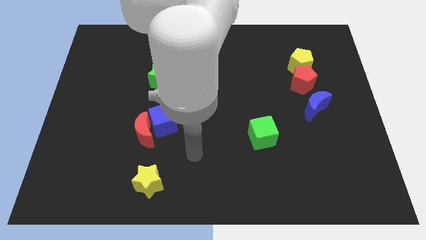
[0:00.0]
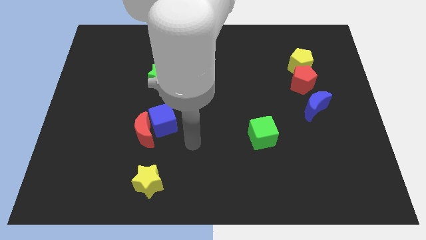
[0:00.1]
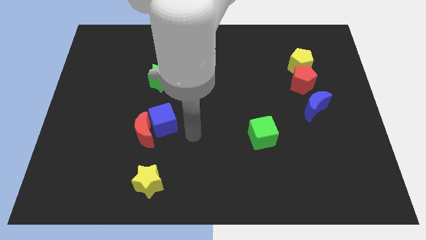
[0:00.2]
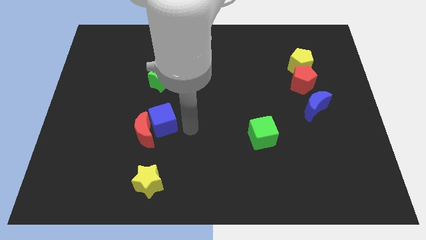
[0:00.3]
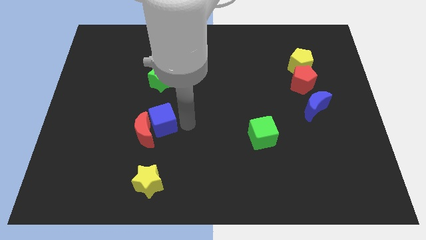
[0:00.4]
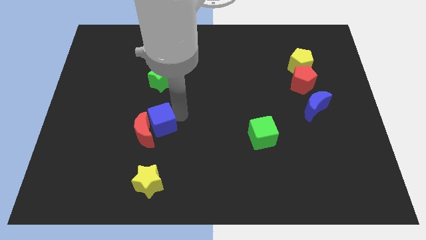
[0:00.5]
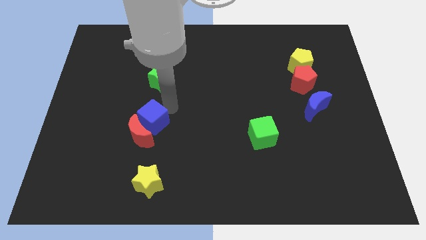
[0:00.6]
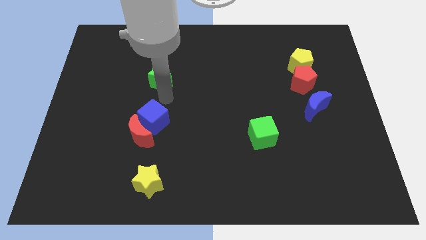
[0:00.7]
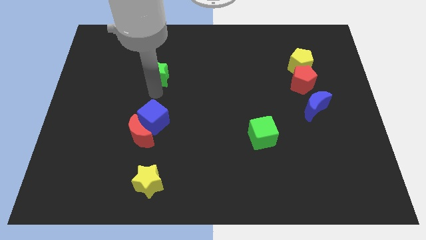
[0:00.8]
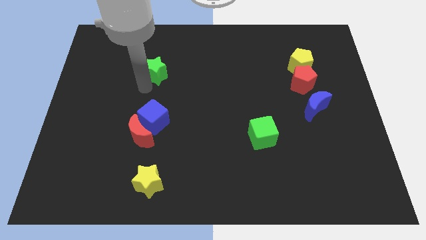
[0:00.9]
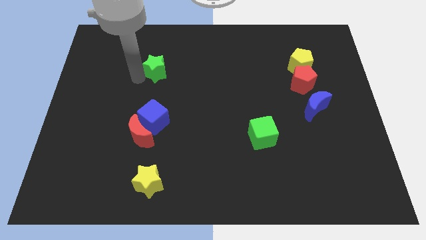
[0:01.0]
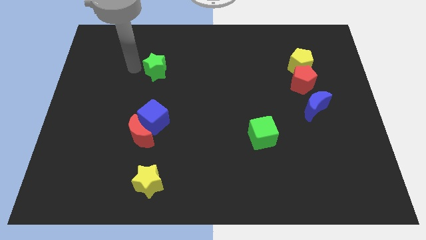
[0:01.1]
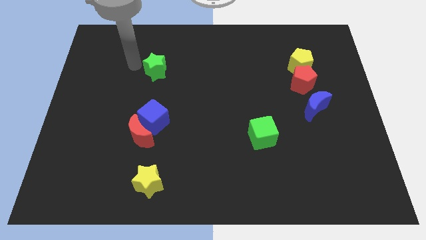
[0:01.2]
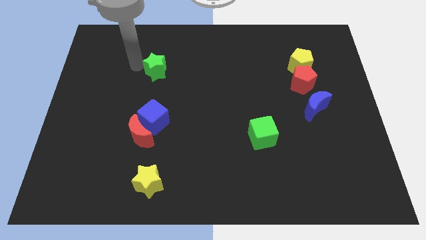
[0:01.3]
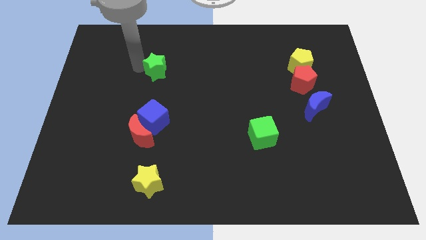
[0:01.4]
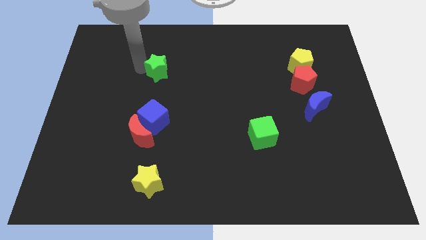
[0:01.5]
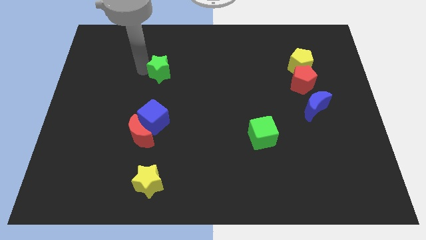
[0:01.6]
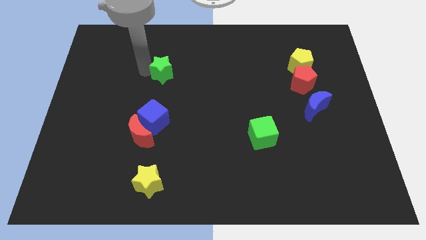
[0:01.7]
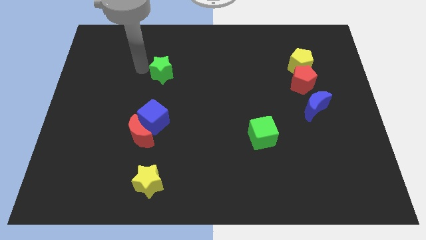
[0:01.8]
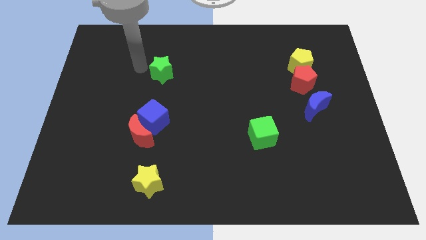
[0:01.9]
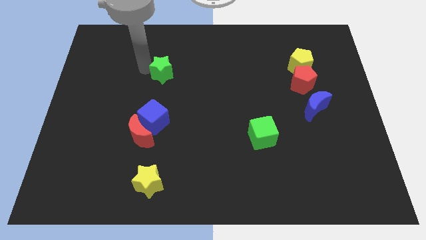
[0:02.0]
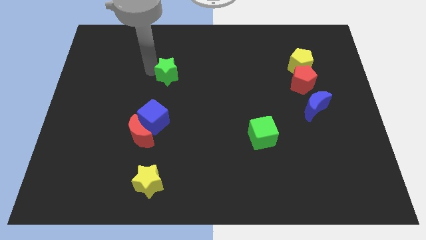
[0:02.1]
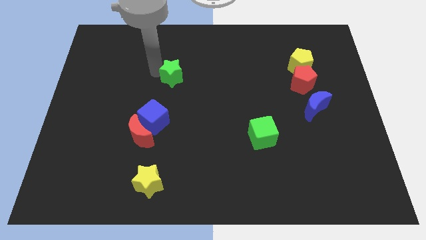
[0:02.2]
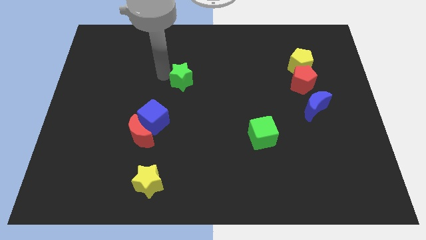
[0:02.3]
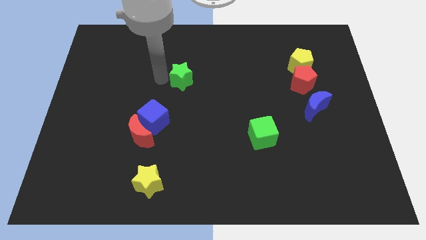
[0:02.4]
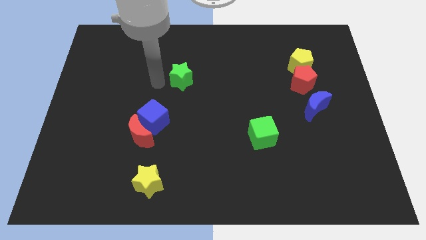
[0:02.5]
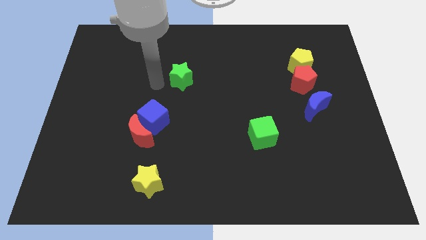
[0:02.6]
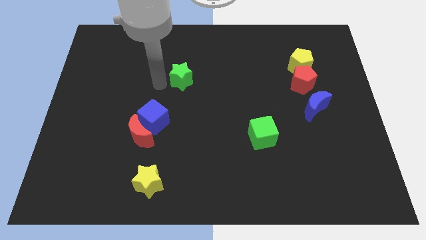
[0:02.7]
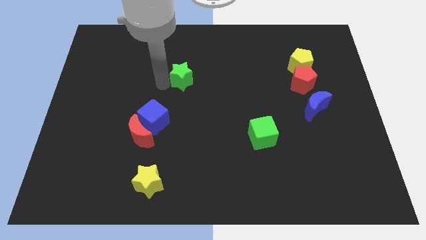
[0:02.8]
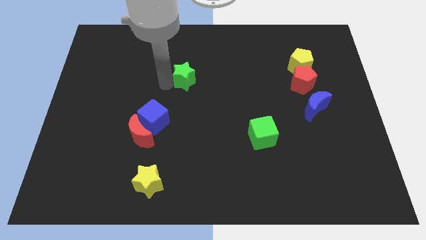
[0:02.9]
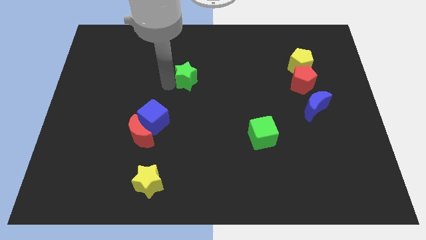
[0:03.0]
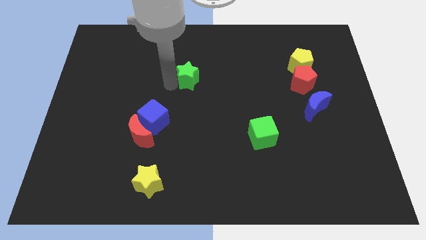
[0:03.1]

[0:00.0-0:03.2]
move the green star somewhat to the right

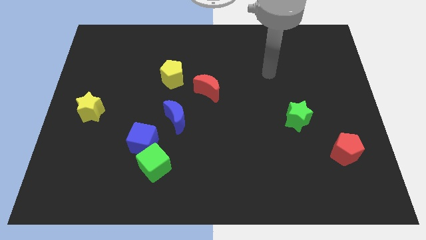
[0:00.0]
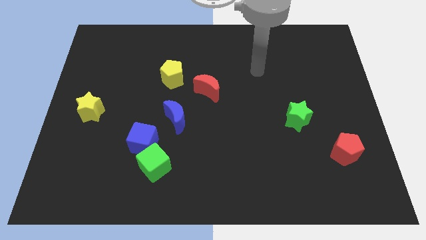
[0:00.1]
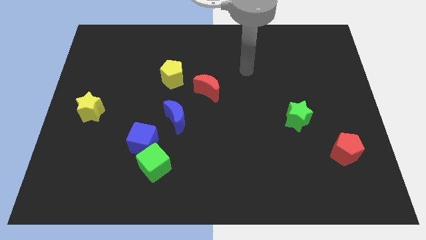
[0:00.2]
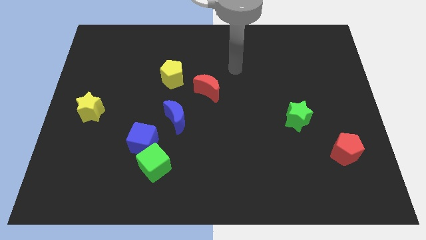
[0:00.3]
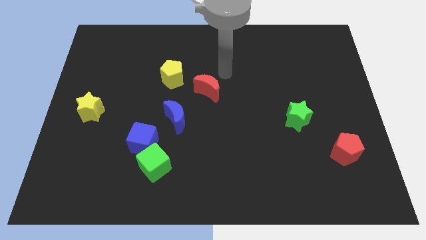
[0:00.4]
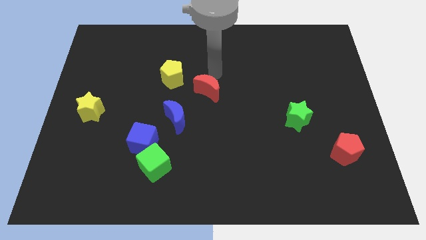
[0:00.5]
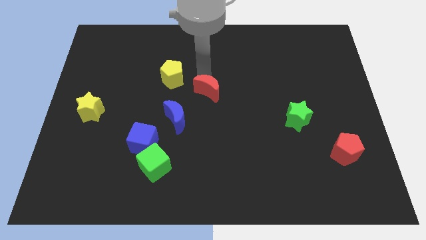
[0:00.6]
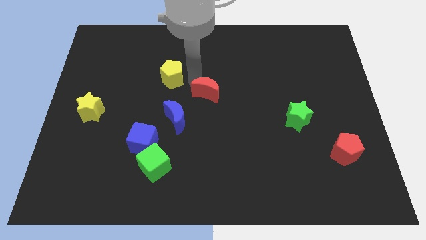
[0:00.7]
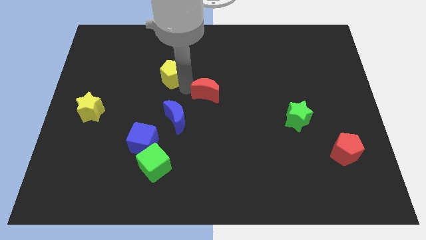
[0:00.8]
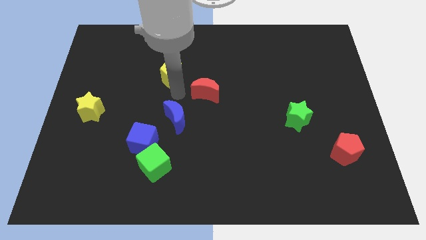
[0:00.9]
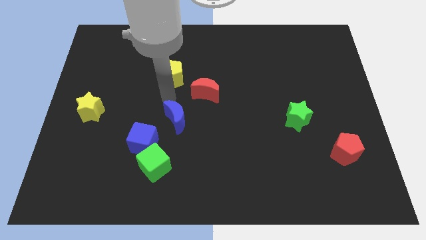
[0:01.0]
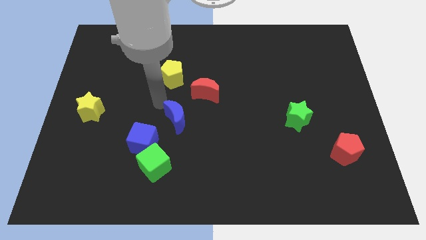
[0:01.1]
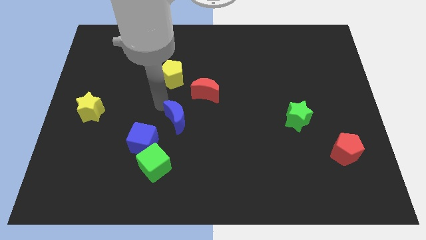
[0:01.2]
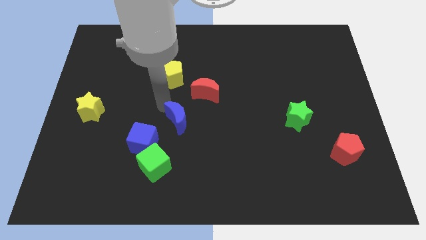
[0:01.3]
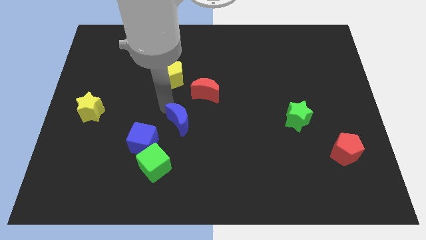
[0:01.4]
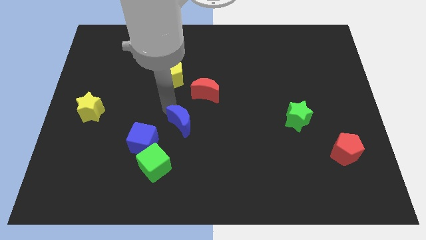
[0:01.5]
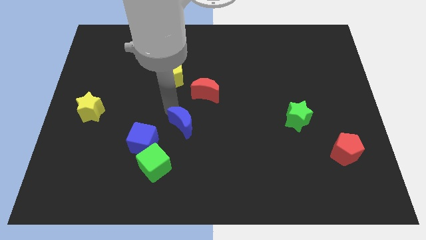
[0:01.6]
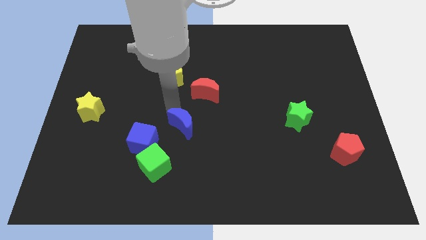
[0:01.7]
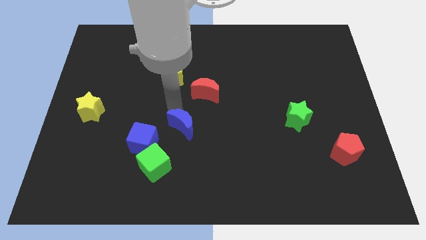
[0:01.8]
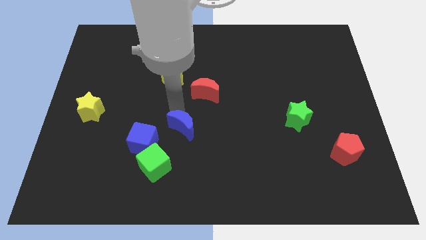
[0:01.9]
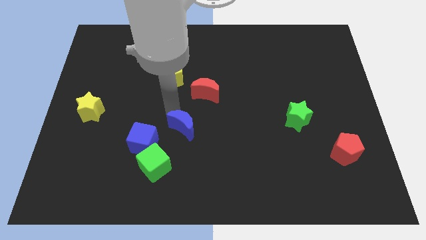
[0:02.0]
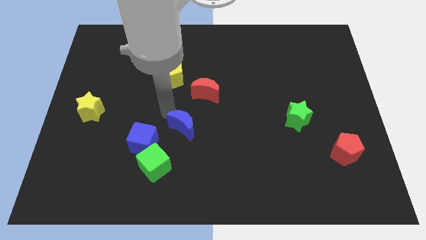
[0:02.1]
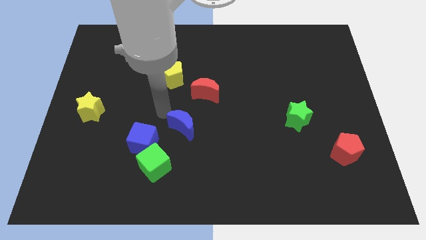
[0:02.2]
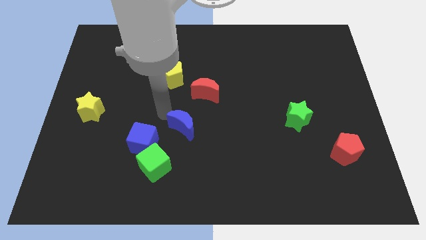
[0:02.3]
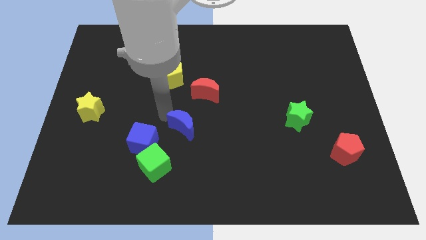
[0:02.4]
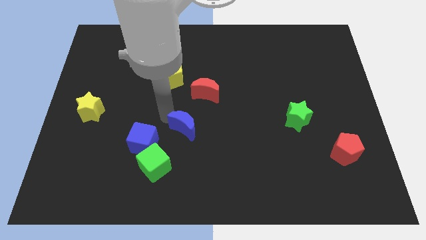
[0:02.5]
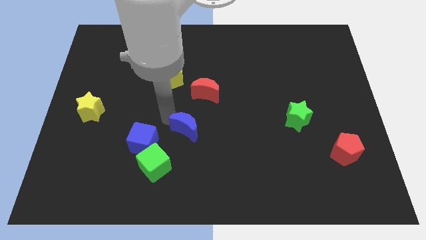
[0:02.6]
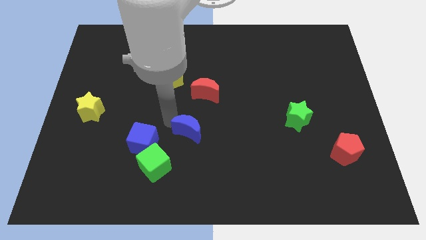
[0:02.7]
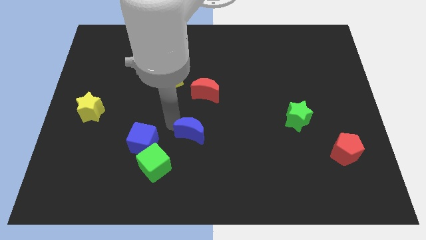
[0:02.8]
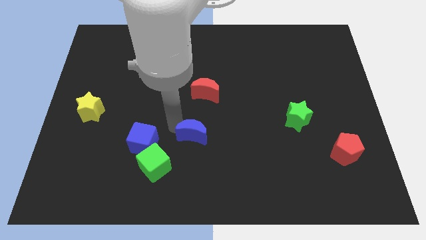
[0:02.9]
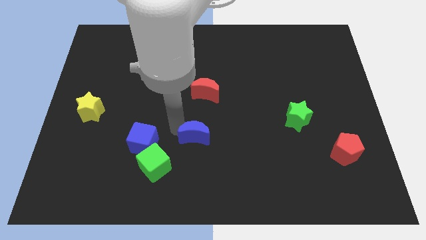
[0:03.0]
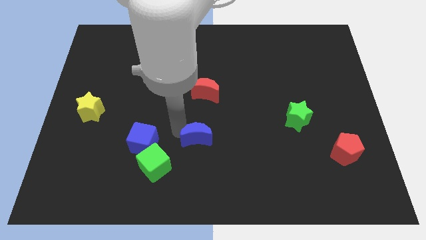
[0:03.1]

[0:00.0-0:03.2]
slightly push the blue moon downwards and right

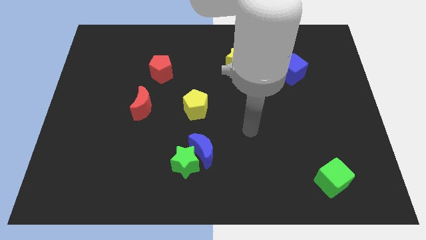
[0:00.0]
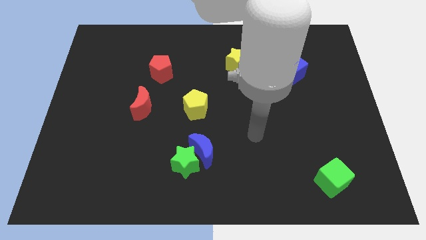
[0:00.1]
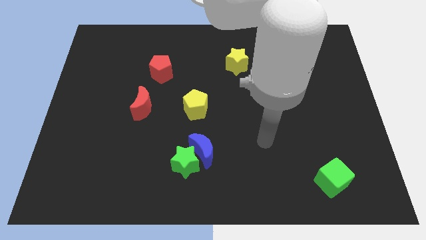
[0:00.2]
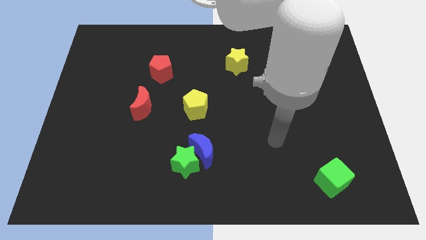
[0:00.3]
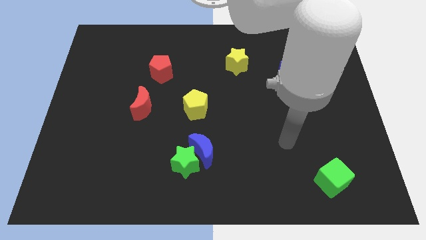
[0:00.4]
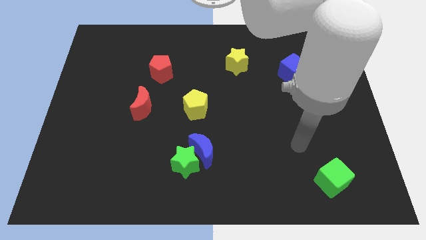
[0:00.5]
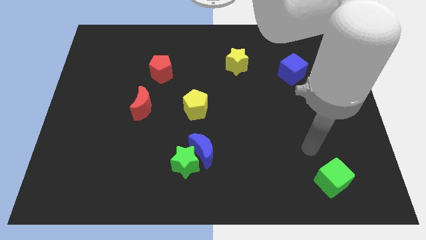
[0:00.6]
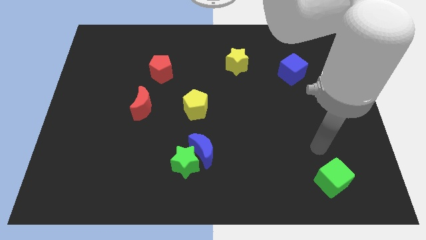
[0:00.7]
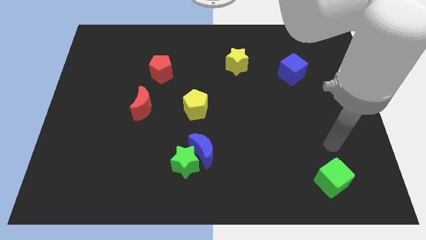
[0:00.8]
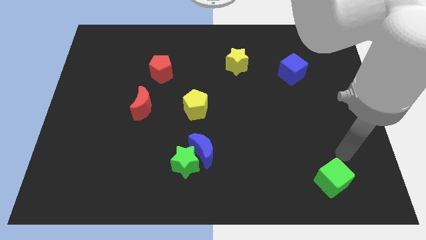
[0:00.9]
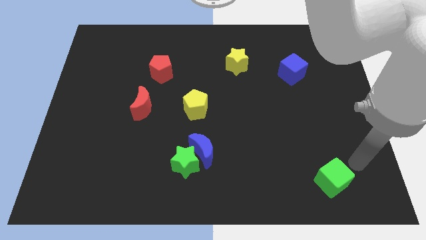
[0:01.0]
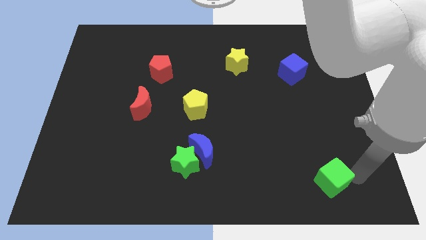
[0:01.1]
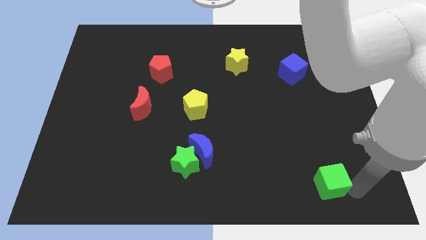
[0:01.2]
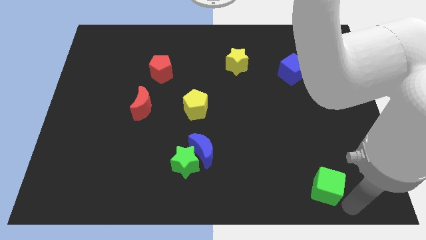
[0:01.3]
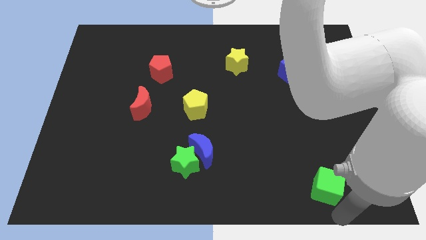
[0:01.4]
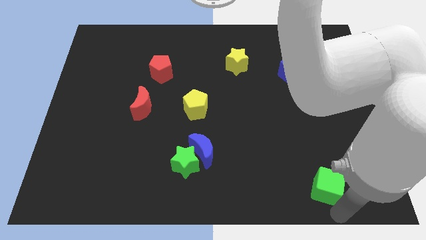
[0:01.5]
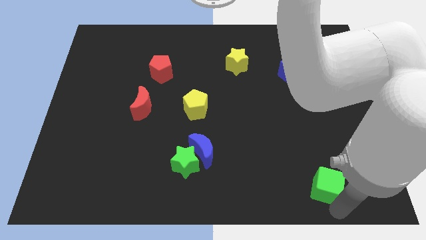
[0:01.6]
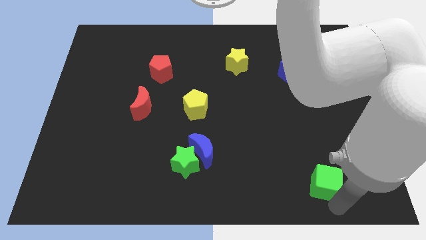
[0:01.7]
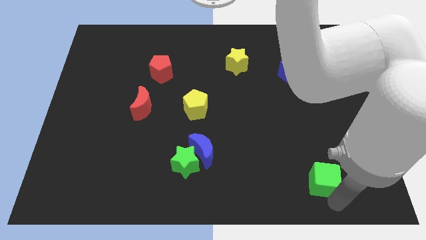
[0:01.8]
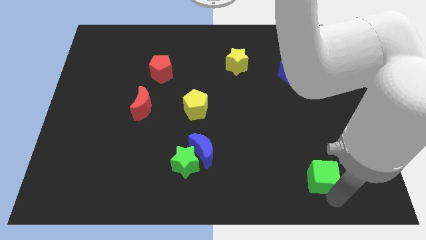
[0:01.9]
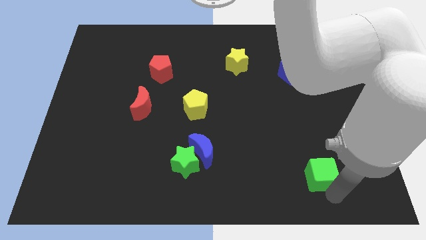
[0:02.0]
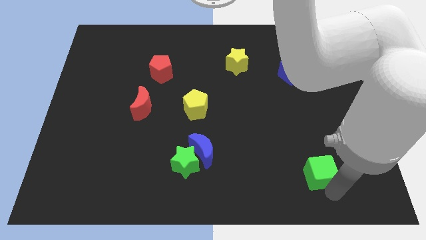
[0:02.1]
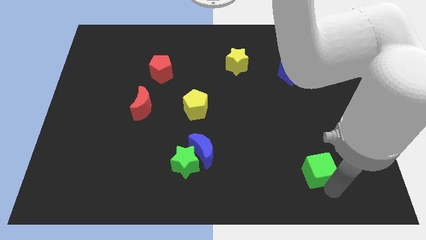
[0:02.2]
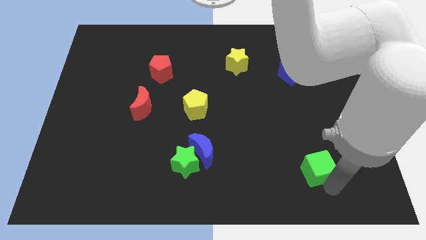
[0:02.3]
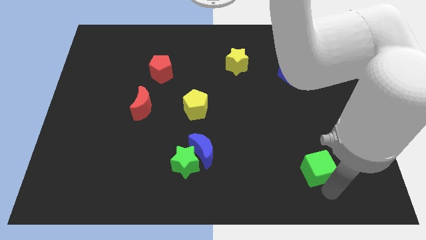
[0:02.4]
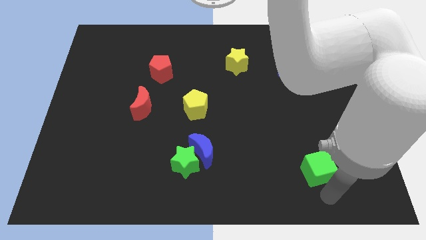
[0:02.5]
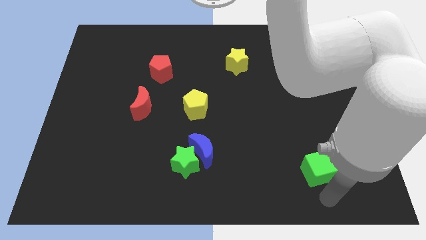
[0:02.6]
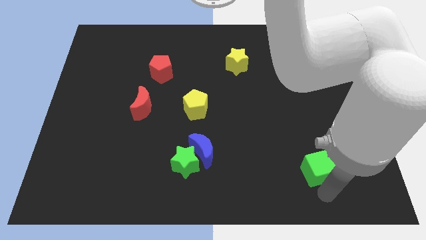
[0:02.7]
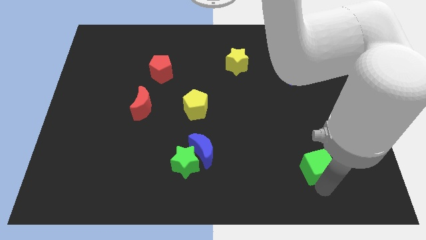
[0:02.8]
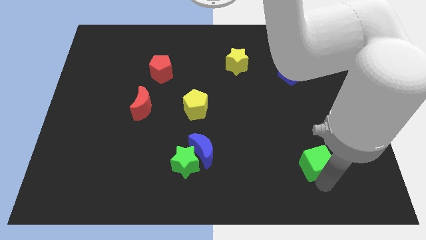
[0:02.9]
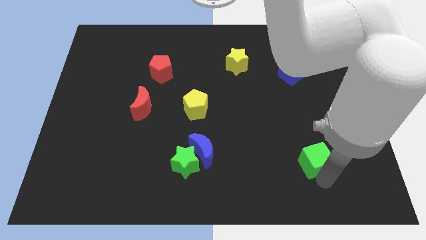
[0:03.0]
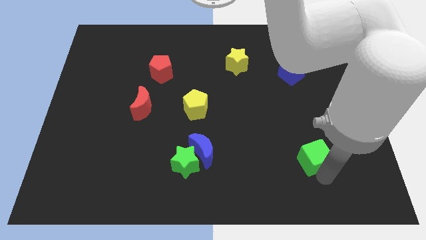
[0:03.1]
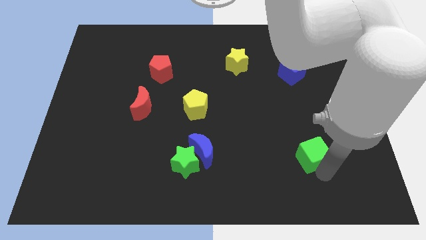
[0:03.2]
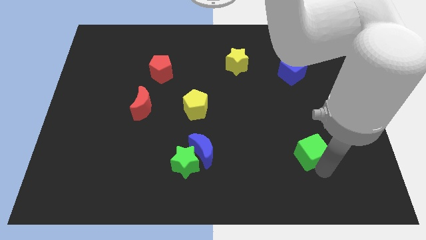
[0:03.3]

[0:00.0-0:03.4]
move the green cube upwards and then left somewhat
